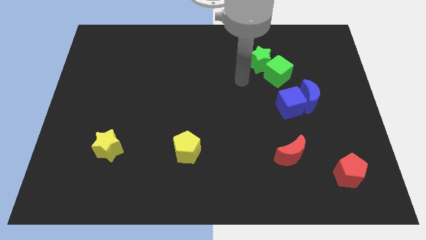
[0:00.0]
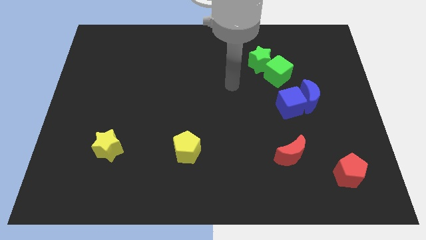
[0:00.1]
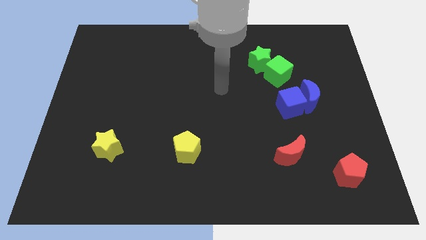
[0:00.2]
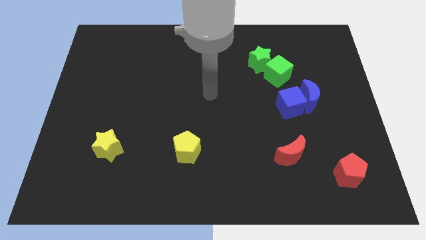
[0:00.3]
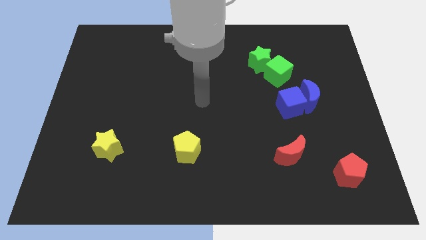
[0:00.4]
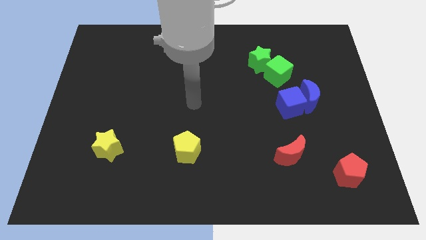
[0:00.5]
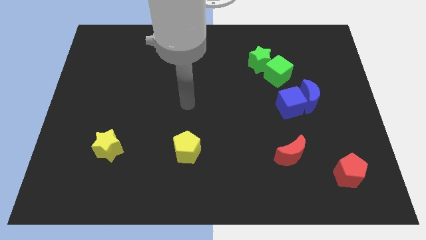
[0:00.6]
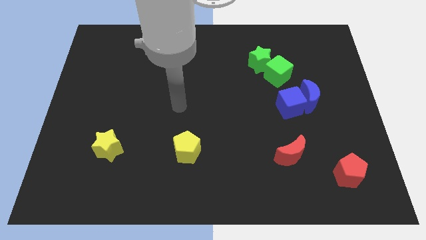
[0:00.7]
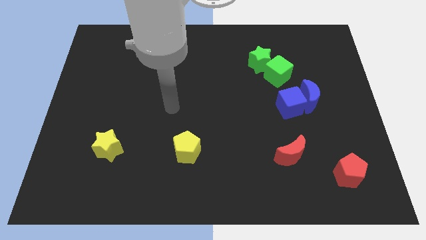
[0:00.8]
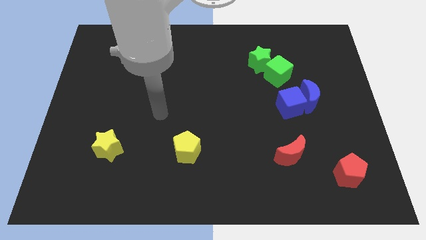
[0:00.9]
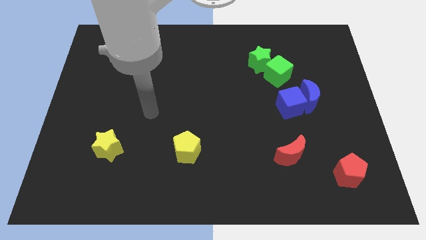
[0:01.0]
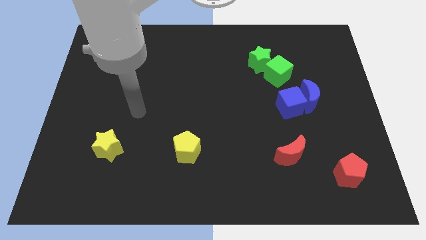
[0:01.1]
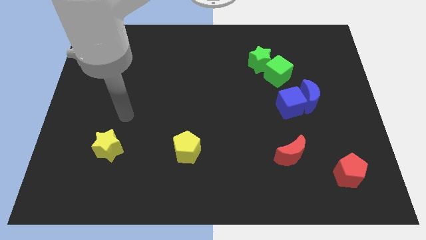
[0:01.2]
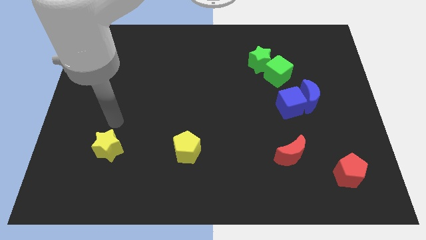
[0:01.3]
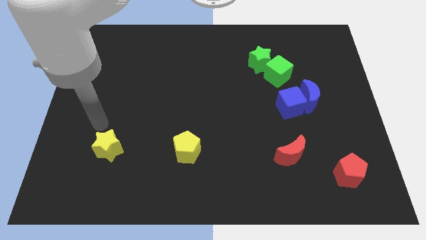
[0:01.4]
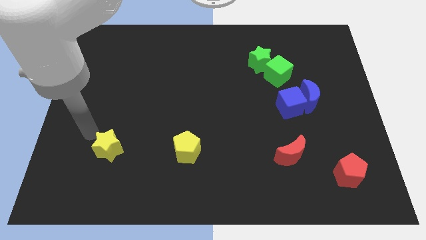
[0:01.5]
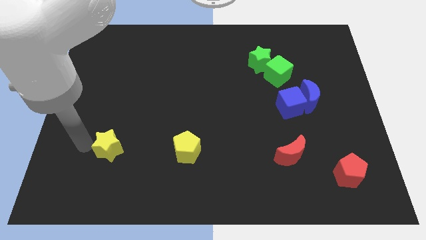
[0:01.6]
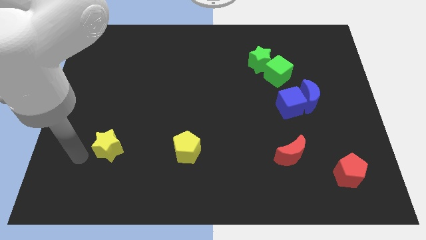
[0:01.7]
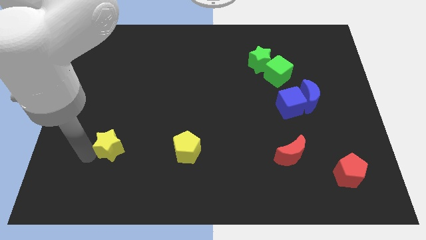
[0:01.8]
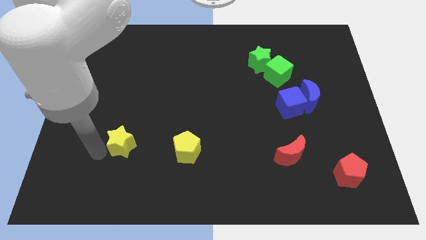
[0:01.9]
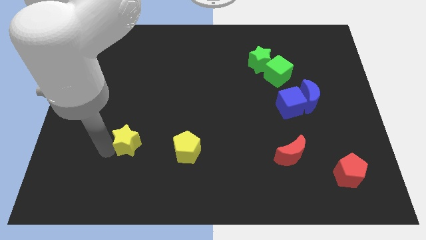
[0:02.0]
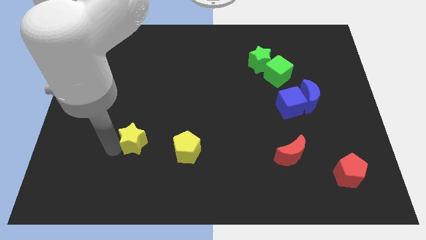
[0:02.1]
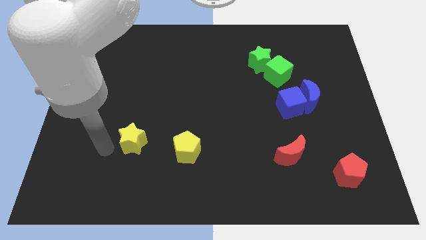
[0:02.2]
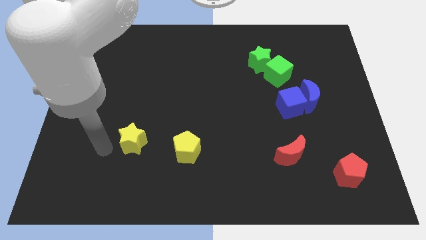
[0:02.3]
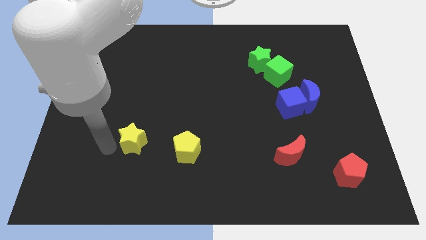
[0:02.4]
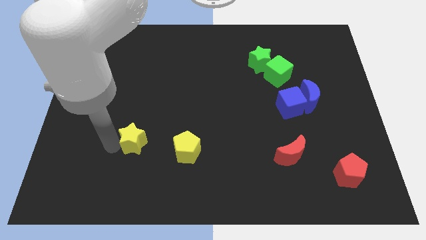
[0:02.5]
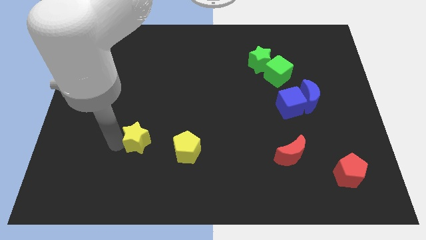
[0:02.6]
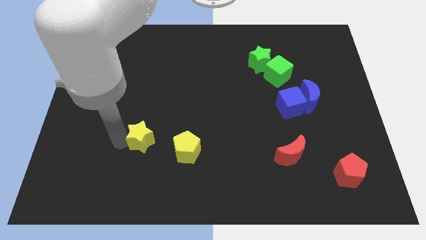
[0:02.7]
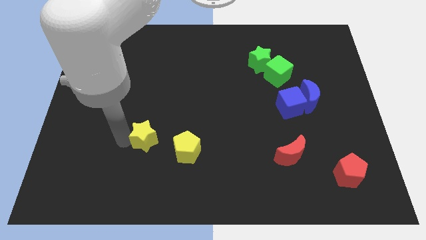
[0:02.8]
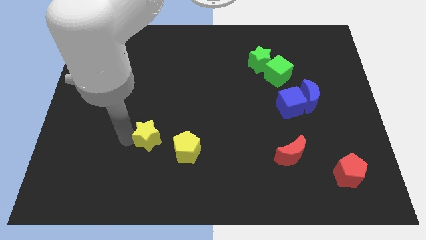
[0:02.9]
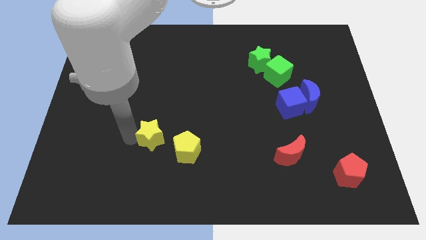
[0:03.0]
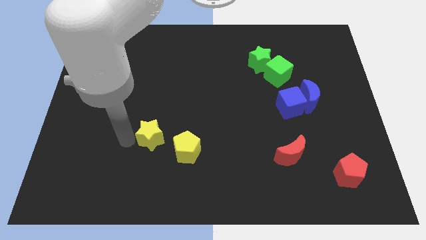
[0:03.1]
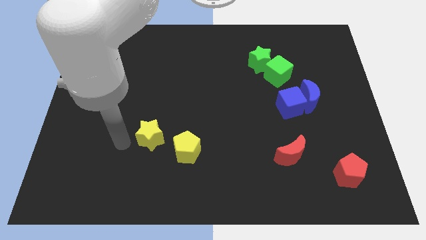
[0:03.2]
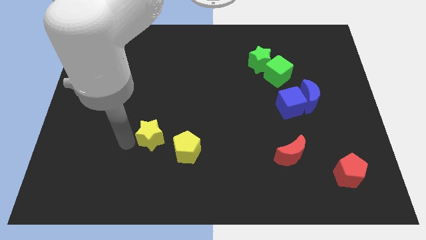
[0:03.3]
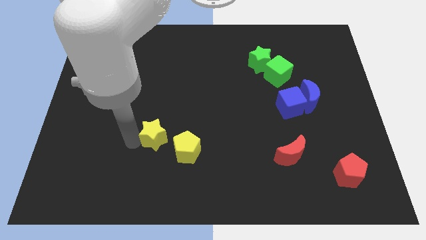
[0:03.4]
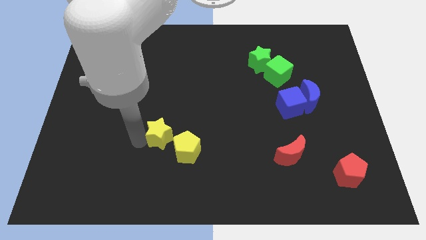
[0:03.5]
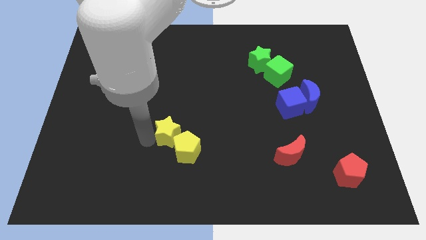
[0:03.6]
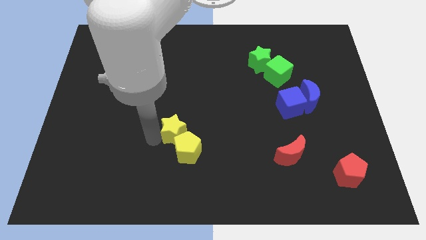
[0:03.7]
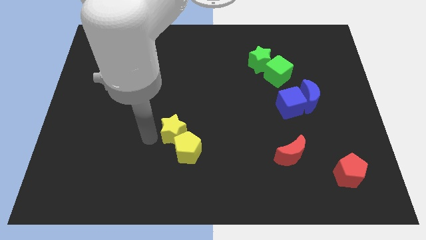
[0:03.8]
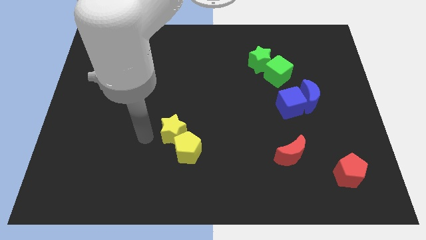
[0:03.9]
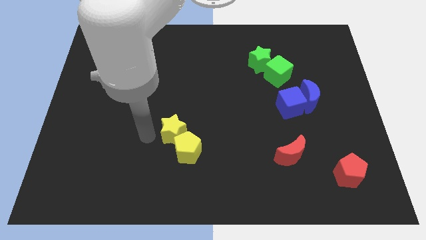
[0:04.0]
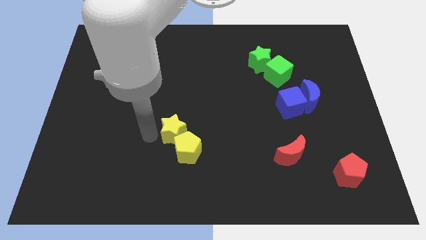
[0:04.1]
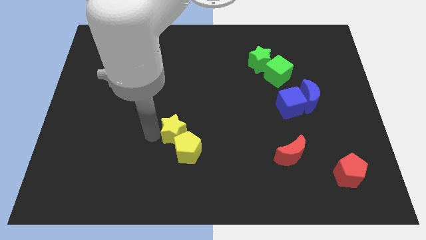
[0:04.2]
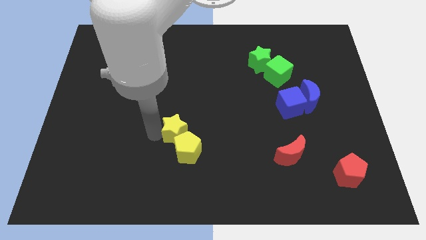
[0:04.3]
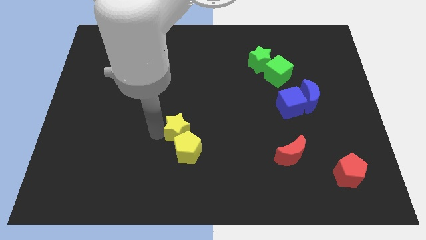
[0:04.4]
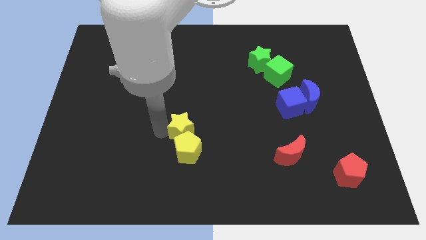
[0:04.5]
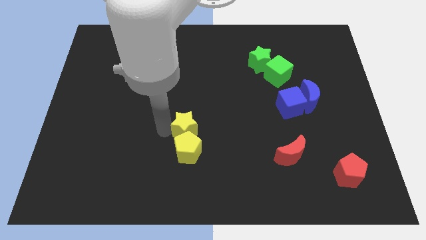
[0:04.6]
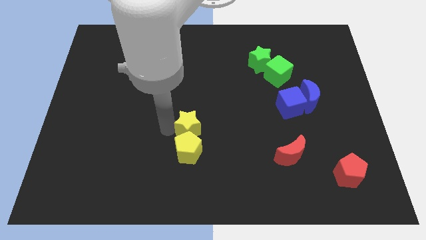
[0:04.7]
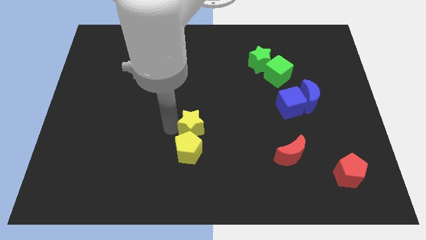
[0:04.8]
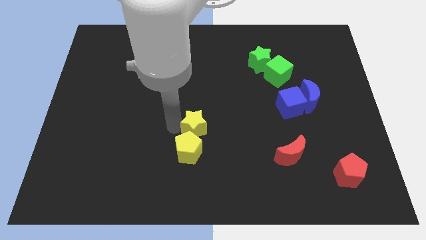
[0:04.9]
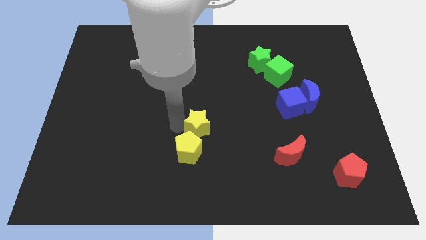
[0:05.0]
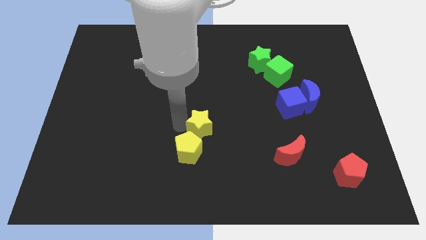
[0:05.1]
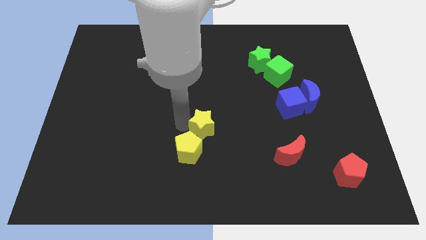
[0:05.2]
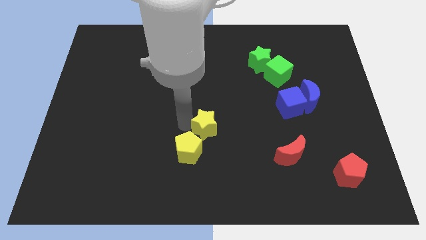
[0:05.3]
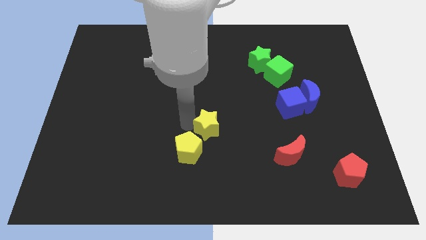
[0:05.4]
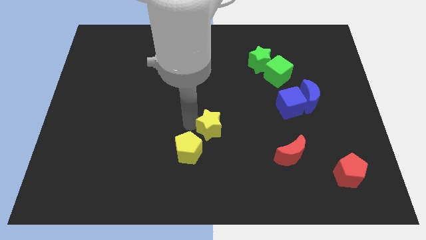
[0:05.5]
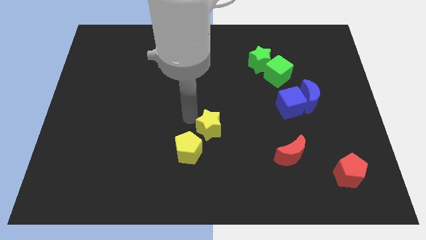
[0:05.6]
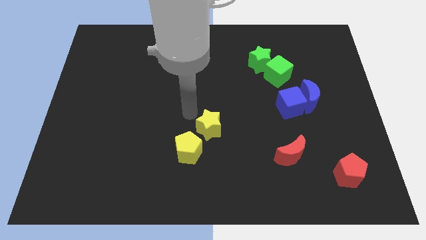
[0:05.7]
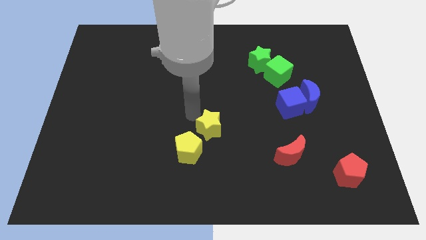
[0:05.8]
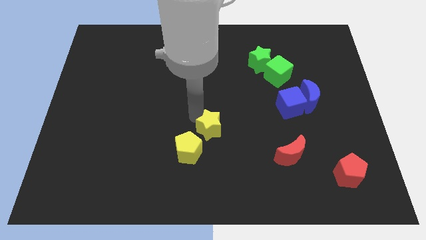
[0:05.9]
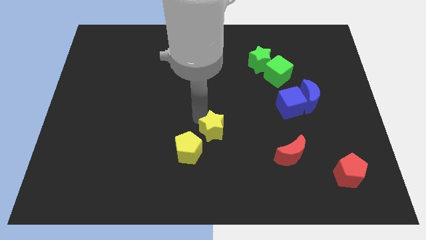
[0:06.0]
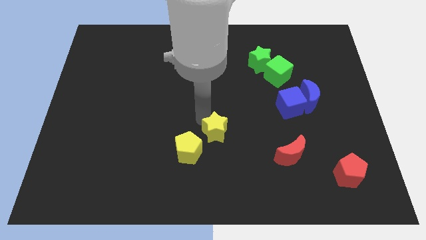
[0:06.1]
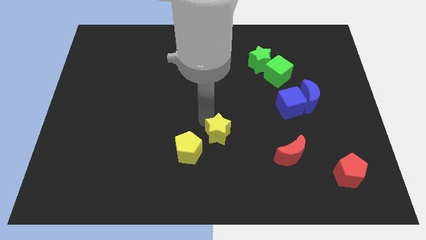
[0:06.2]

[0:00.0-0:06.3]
put the yellow star to the right of the yellow pentagon

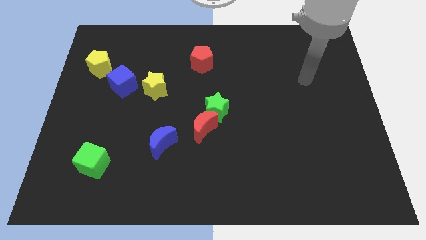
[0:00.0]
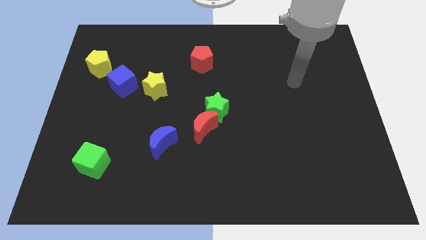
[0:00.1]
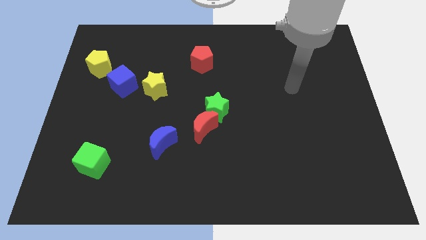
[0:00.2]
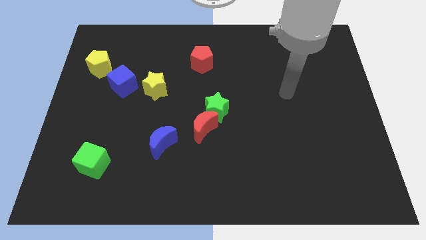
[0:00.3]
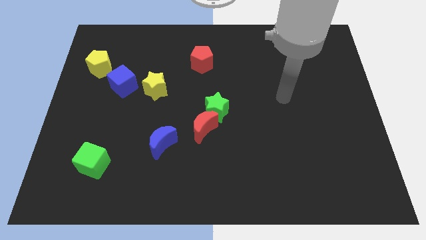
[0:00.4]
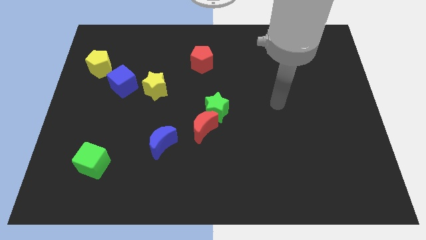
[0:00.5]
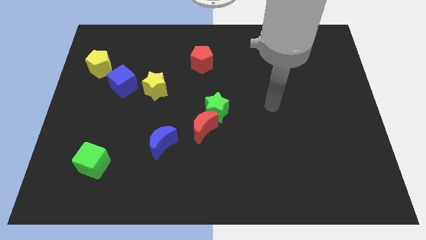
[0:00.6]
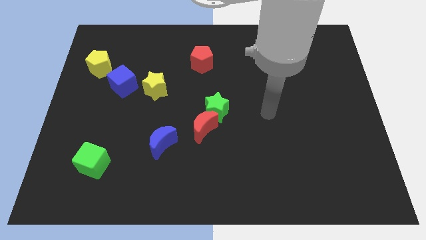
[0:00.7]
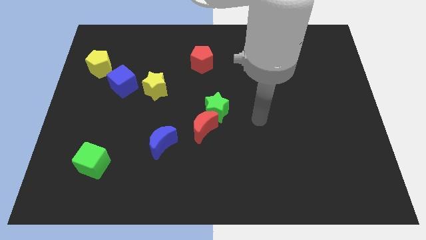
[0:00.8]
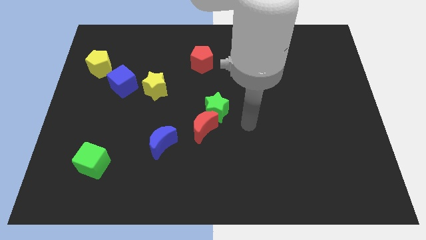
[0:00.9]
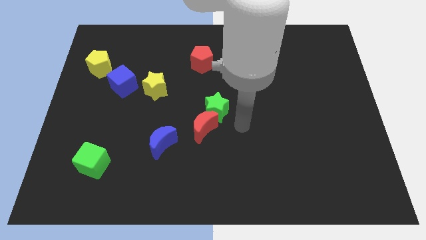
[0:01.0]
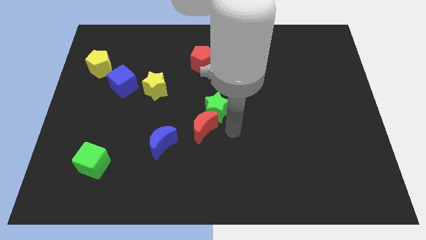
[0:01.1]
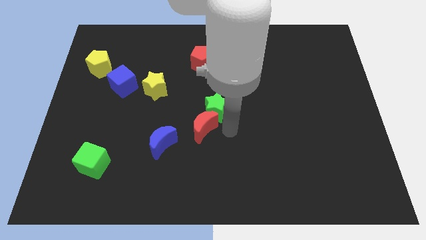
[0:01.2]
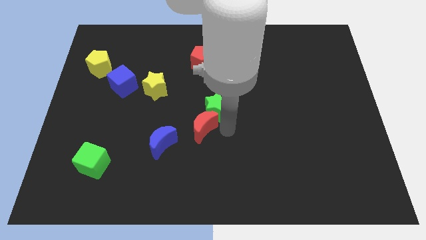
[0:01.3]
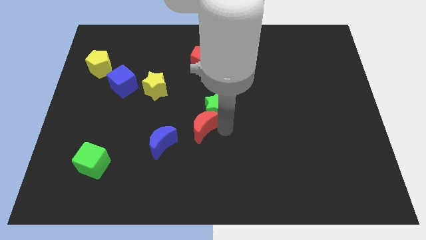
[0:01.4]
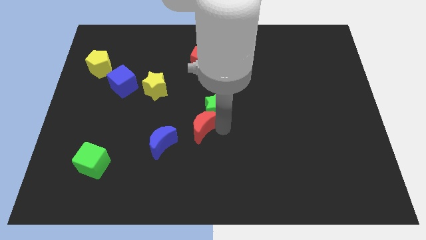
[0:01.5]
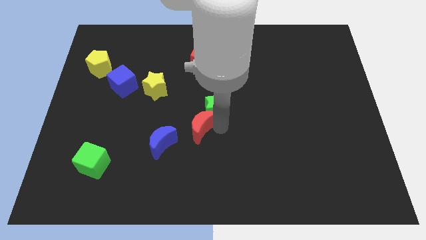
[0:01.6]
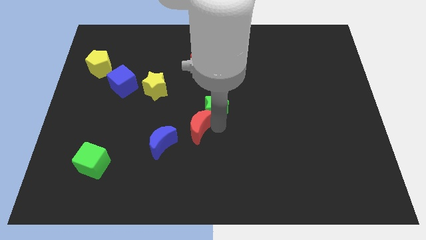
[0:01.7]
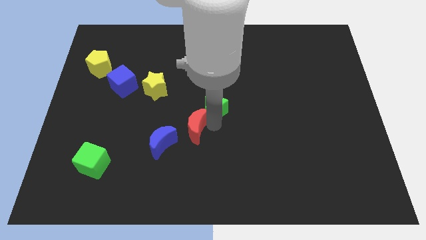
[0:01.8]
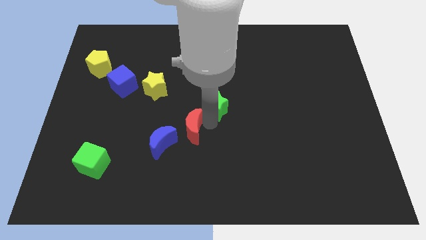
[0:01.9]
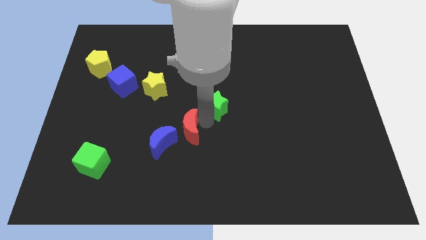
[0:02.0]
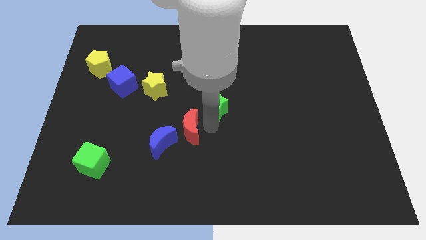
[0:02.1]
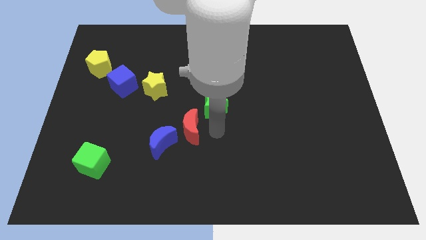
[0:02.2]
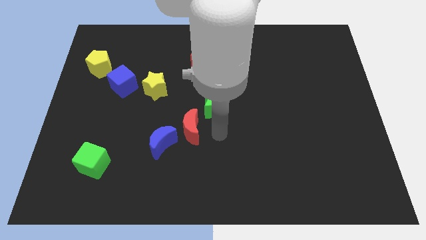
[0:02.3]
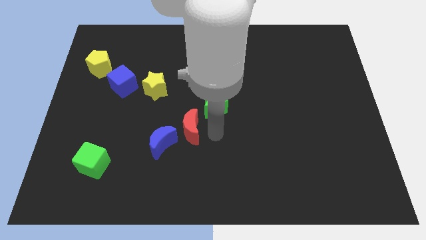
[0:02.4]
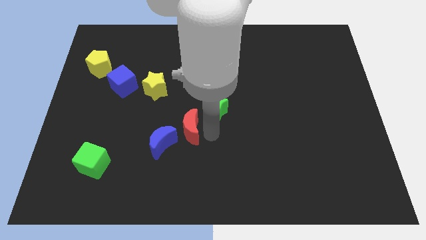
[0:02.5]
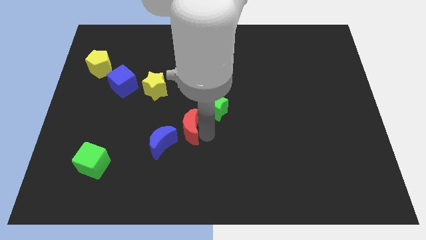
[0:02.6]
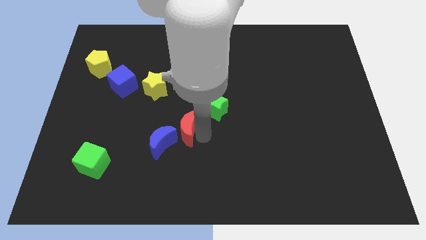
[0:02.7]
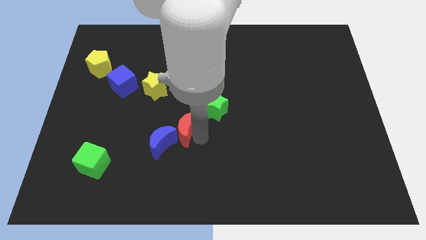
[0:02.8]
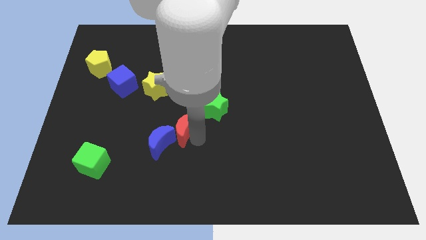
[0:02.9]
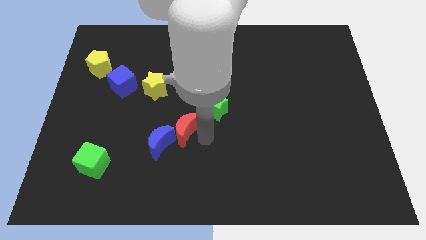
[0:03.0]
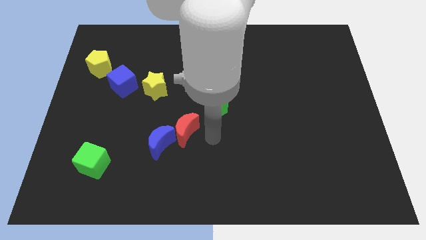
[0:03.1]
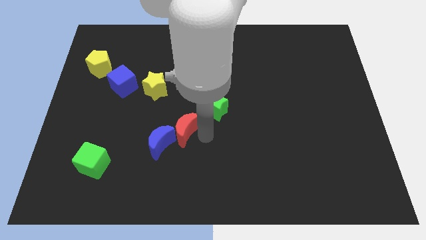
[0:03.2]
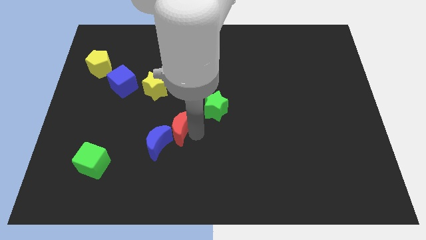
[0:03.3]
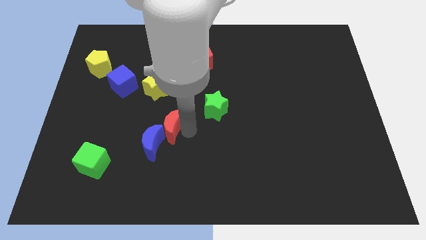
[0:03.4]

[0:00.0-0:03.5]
push the red moon to the bottom side of the yellow star
